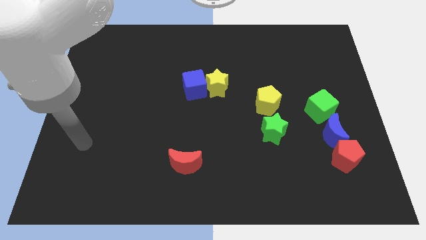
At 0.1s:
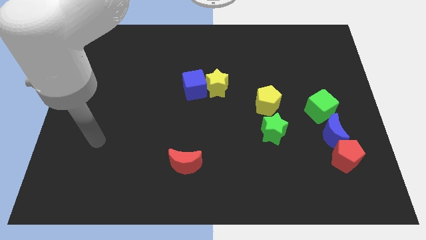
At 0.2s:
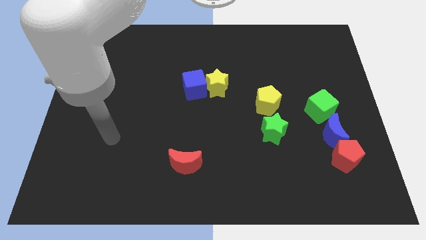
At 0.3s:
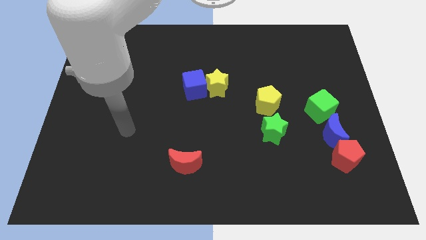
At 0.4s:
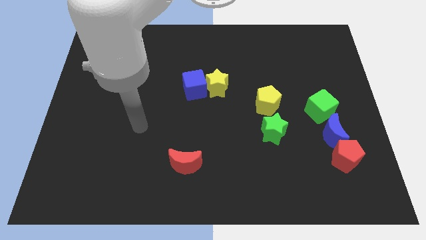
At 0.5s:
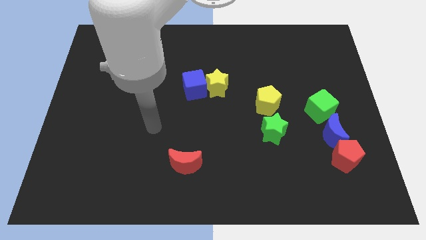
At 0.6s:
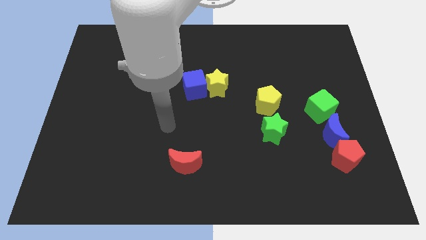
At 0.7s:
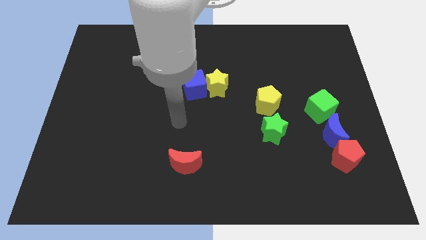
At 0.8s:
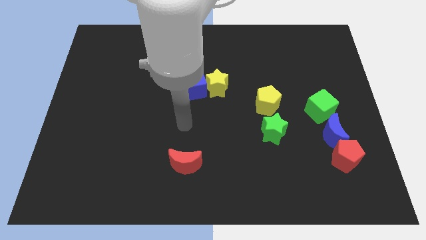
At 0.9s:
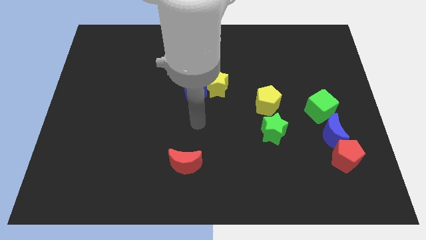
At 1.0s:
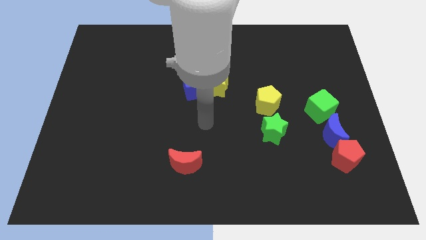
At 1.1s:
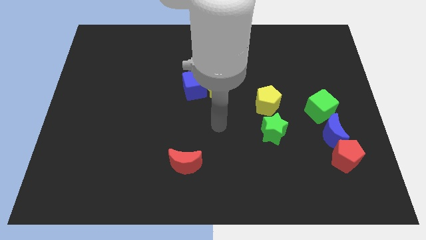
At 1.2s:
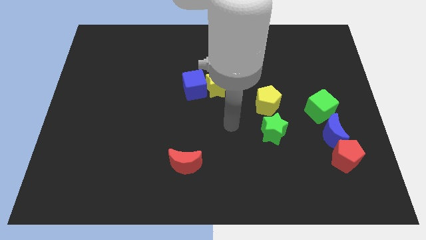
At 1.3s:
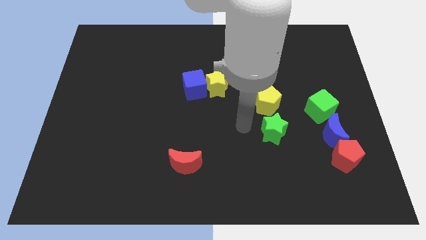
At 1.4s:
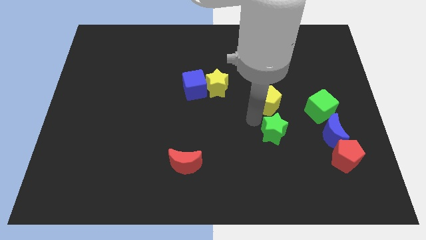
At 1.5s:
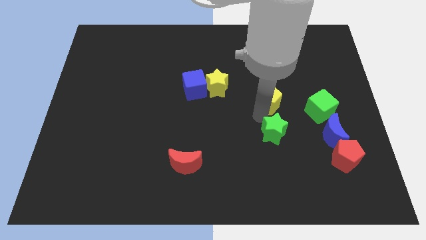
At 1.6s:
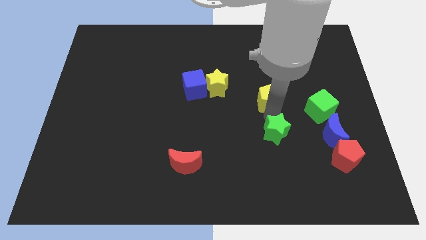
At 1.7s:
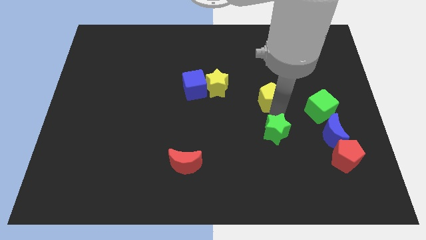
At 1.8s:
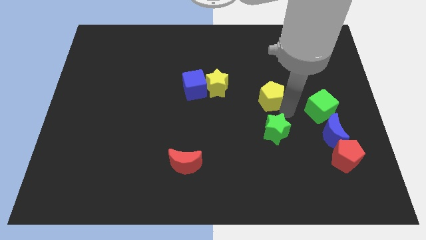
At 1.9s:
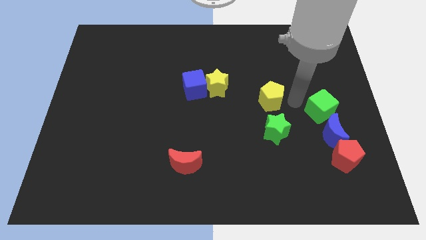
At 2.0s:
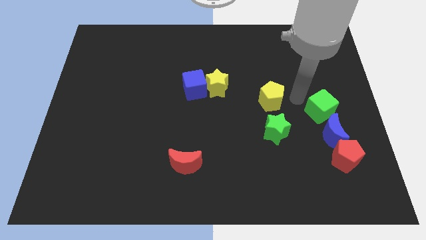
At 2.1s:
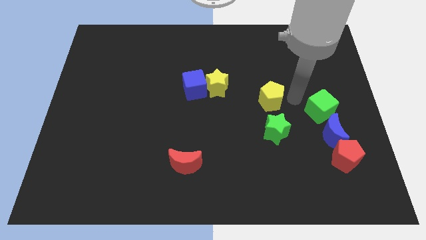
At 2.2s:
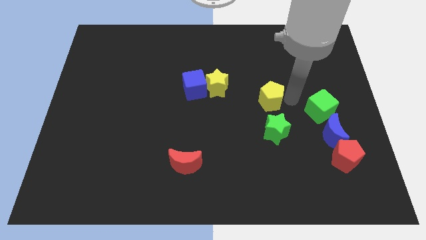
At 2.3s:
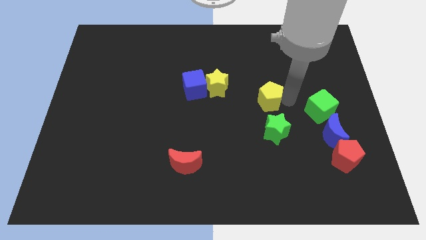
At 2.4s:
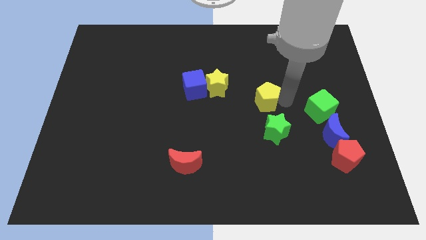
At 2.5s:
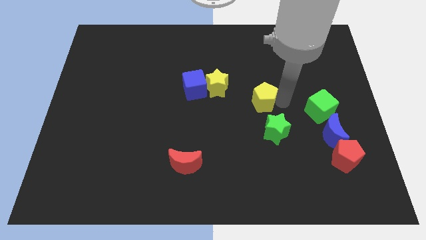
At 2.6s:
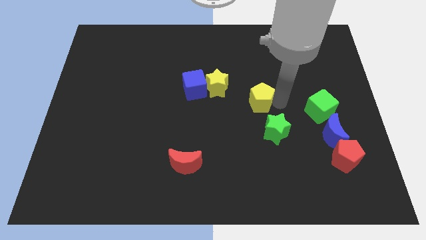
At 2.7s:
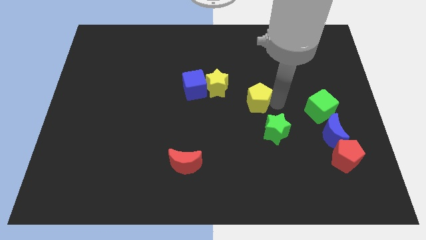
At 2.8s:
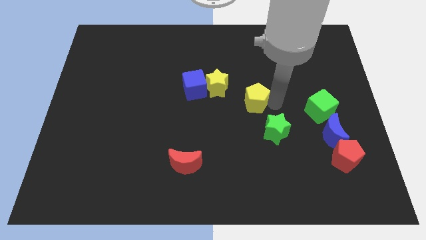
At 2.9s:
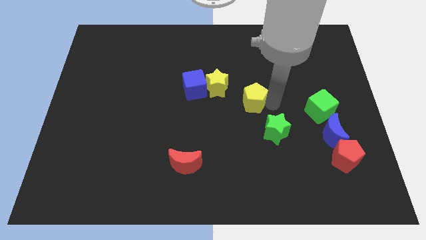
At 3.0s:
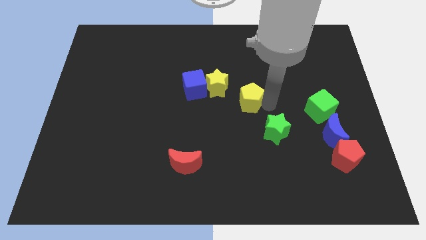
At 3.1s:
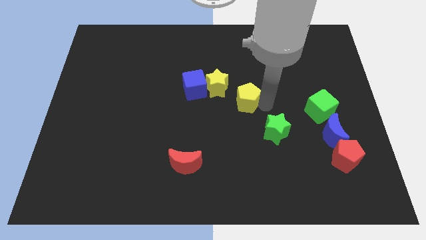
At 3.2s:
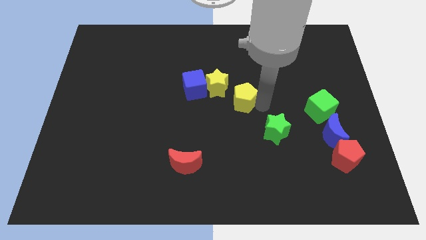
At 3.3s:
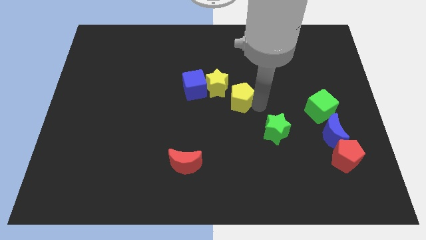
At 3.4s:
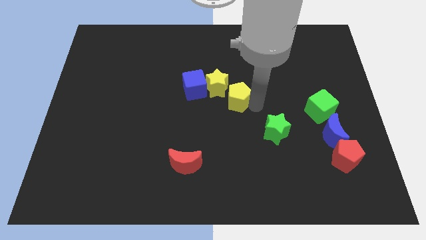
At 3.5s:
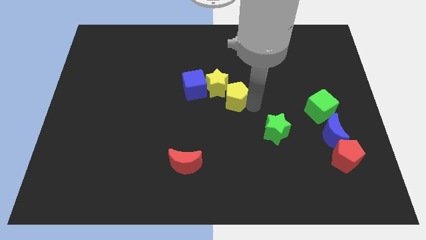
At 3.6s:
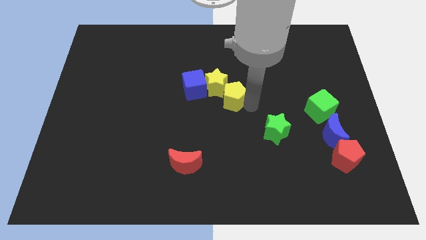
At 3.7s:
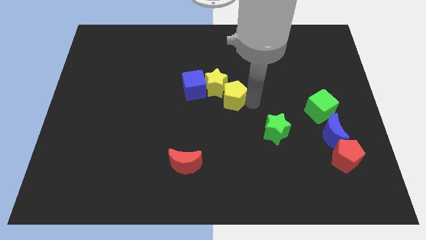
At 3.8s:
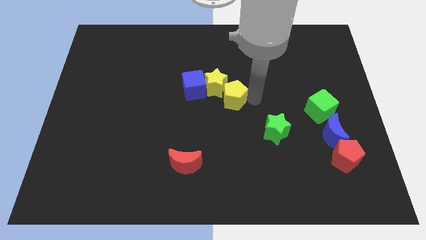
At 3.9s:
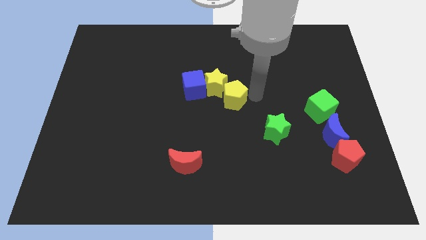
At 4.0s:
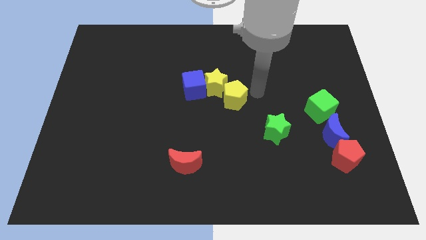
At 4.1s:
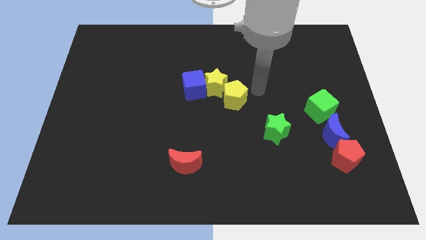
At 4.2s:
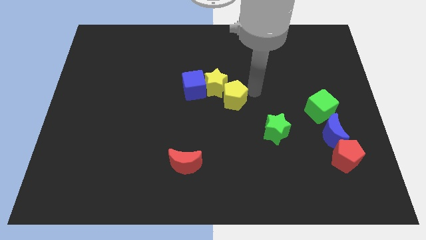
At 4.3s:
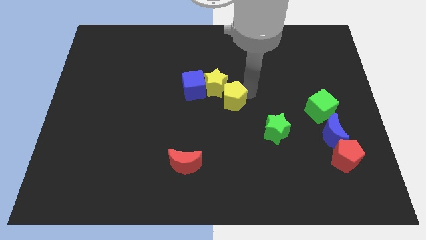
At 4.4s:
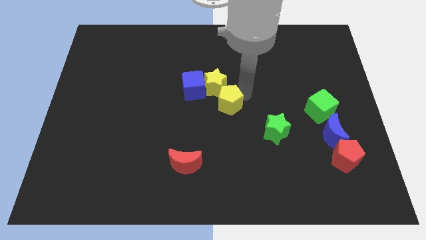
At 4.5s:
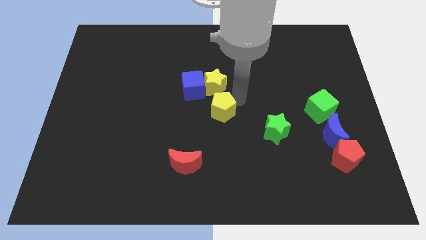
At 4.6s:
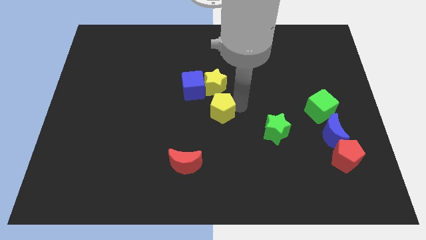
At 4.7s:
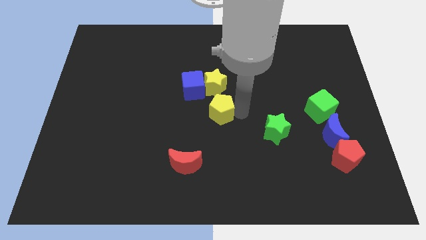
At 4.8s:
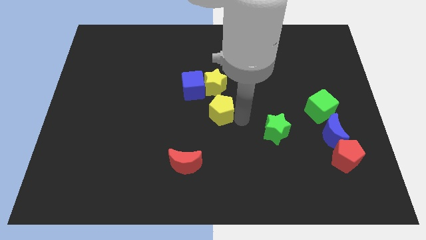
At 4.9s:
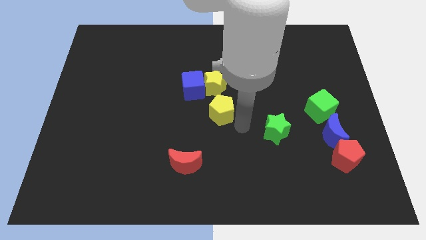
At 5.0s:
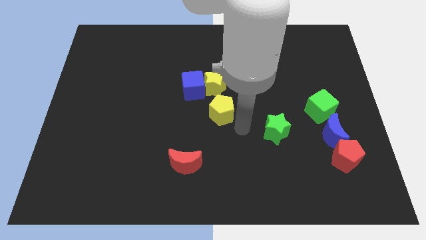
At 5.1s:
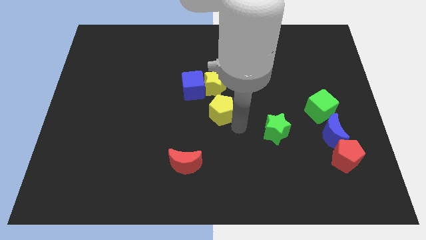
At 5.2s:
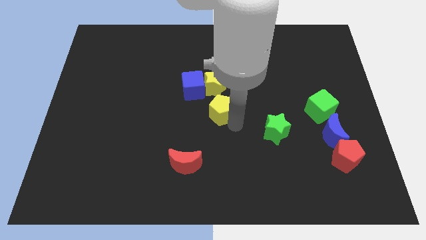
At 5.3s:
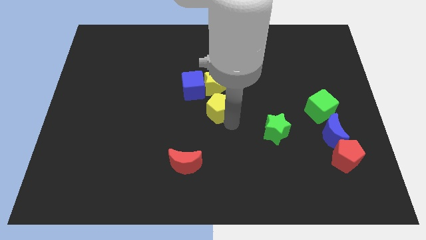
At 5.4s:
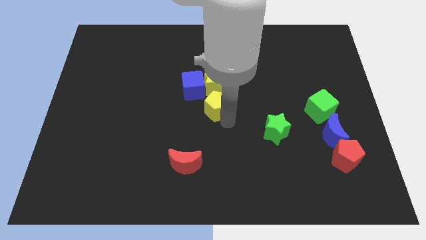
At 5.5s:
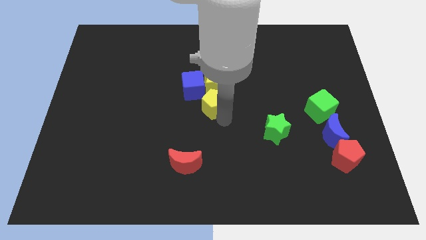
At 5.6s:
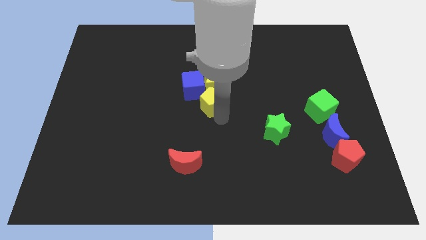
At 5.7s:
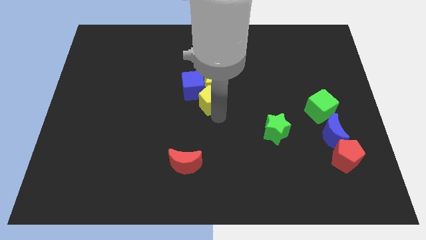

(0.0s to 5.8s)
move the yellow pentagon next to the blue cube
